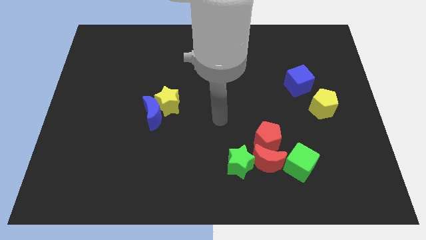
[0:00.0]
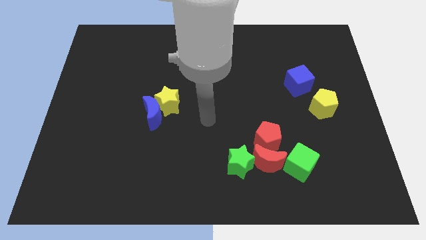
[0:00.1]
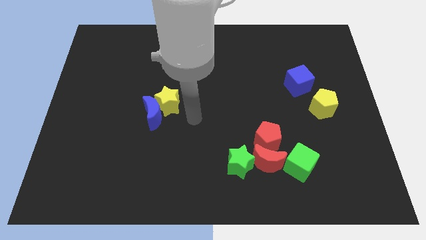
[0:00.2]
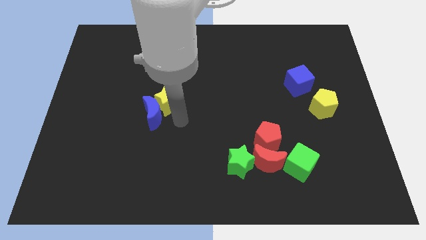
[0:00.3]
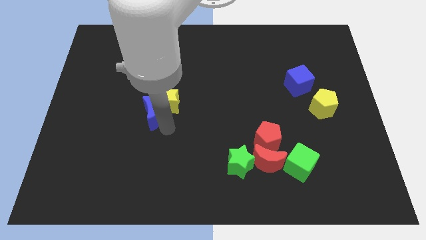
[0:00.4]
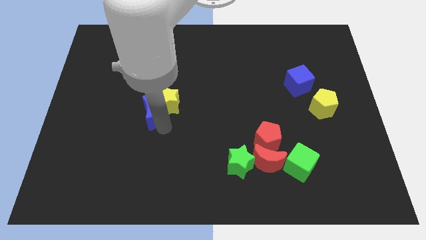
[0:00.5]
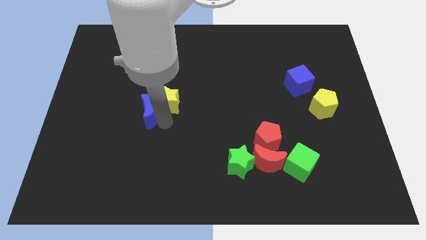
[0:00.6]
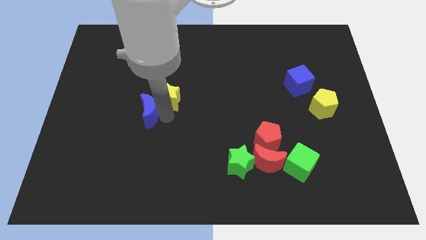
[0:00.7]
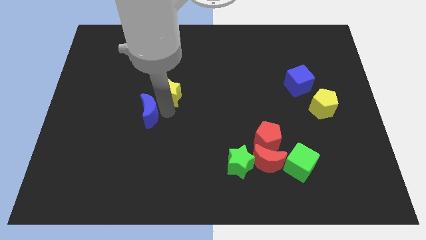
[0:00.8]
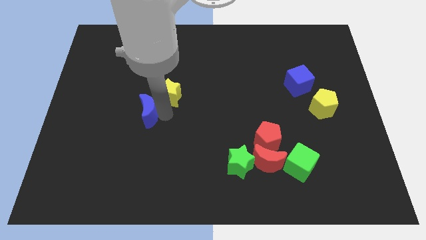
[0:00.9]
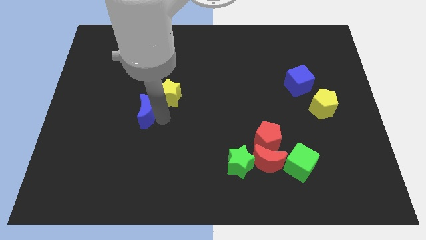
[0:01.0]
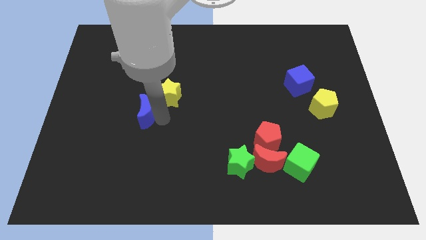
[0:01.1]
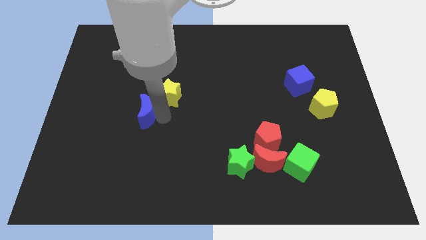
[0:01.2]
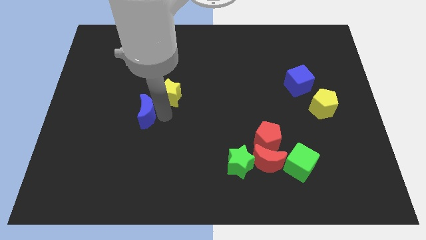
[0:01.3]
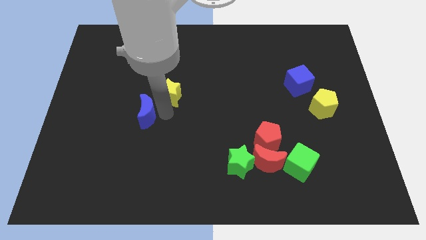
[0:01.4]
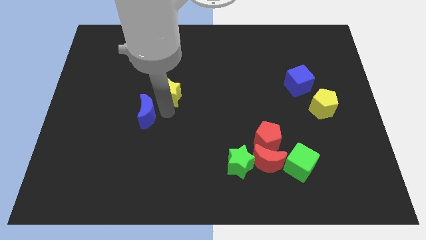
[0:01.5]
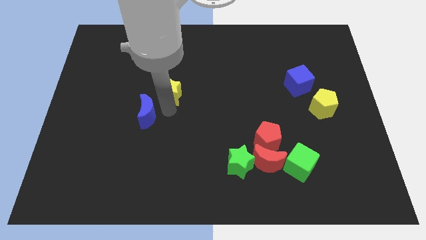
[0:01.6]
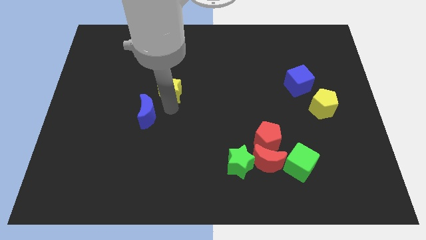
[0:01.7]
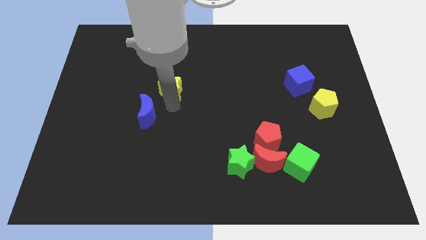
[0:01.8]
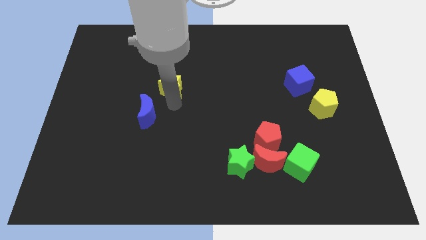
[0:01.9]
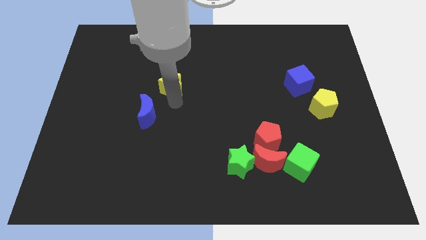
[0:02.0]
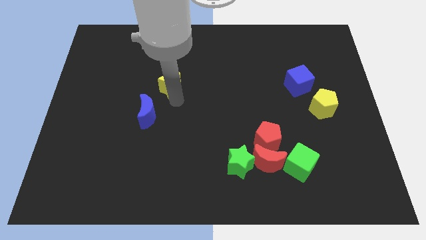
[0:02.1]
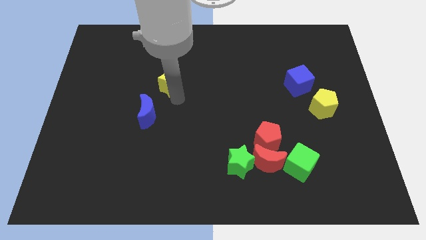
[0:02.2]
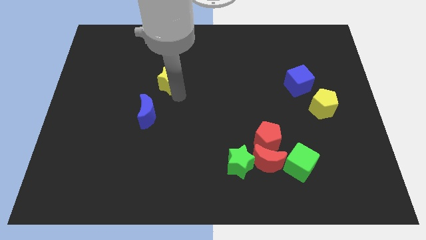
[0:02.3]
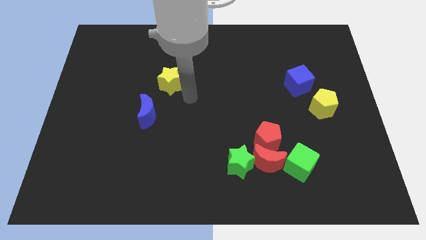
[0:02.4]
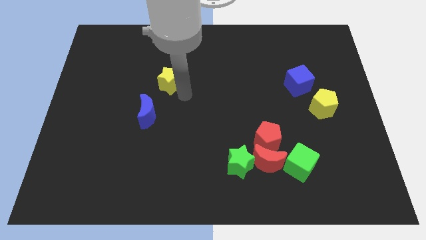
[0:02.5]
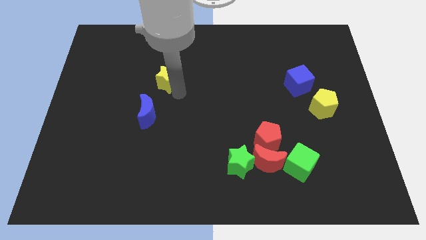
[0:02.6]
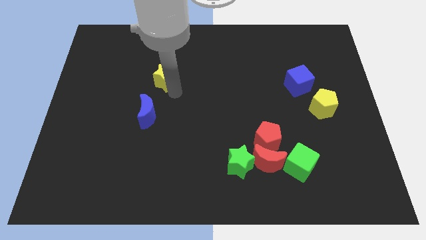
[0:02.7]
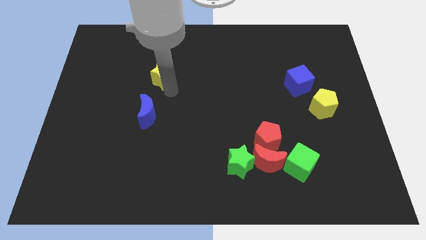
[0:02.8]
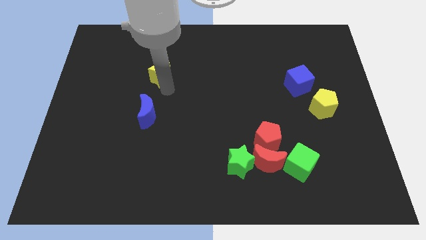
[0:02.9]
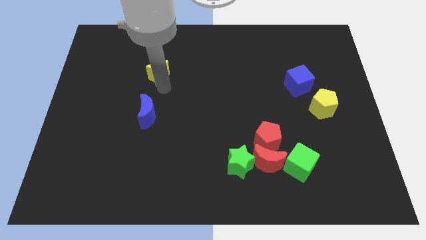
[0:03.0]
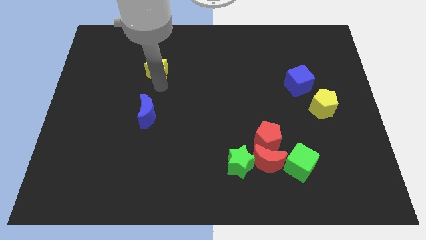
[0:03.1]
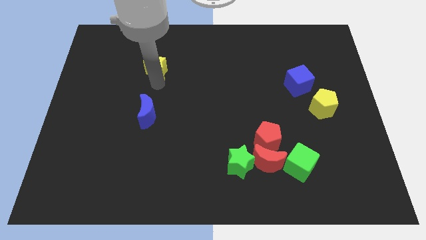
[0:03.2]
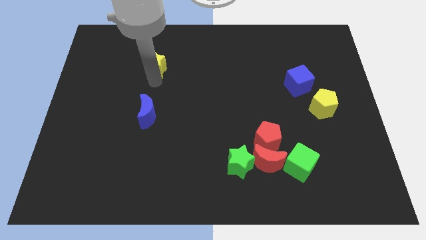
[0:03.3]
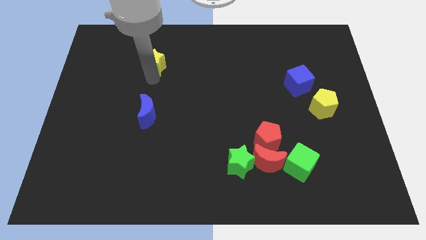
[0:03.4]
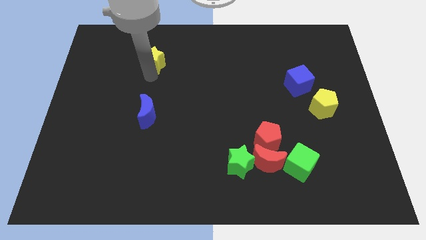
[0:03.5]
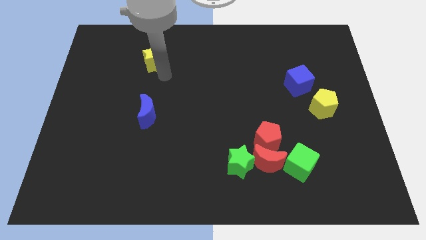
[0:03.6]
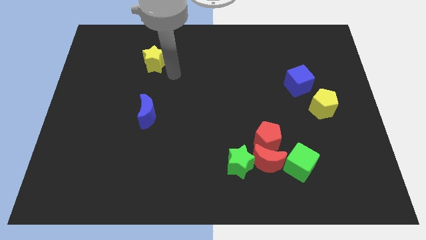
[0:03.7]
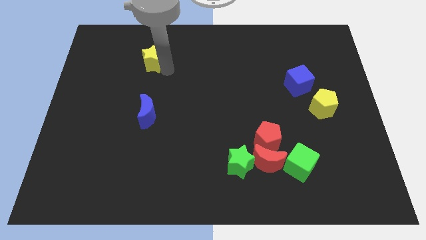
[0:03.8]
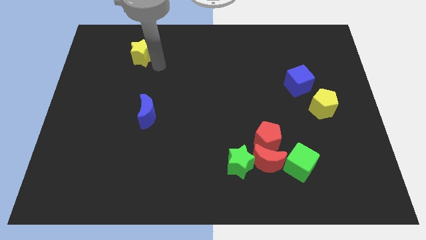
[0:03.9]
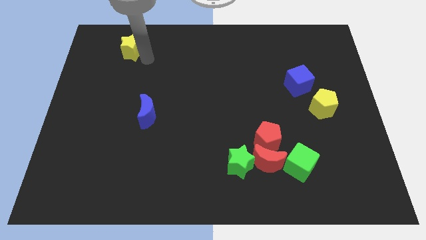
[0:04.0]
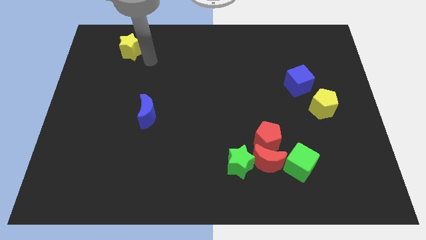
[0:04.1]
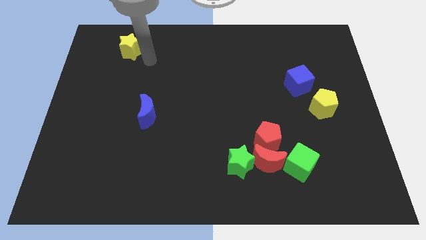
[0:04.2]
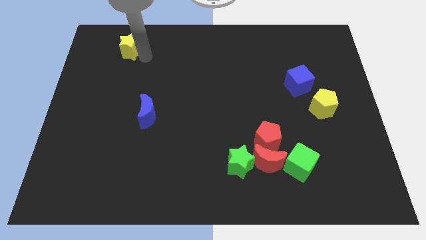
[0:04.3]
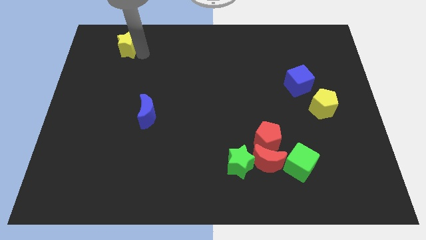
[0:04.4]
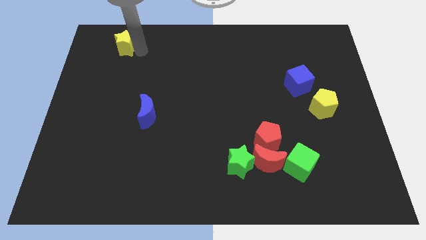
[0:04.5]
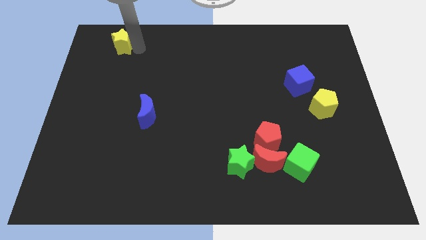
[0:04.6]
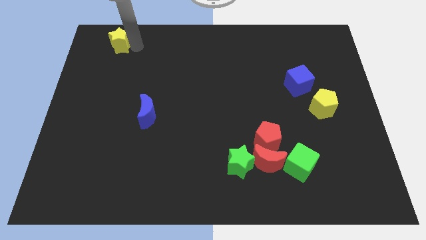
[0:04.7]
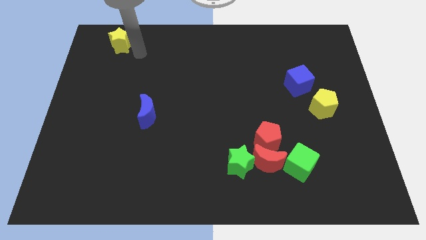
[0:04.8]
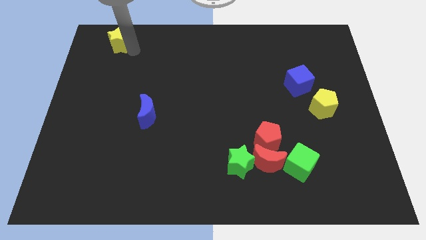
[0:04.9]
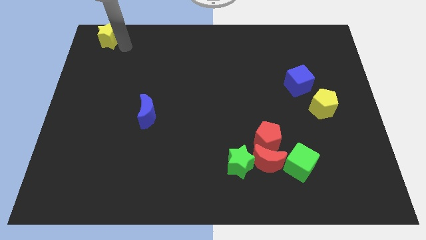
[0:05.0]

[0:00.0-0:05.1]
push the yellow star to the top left corner

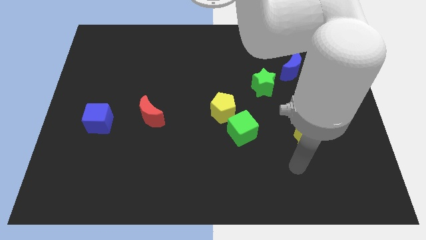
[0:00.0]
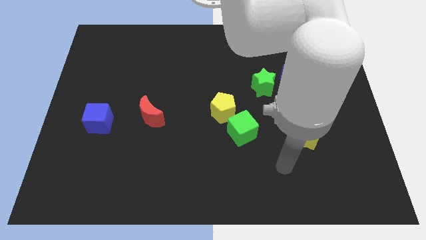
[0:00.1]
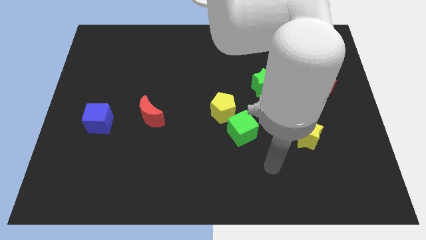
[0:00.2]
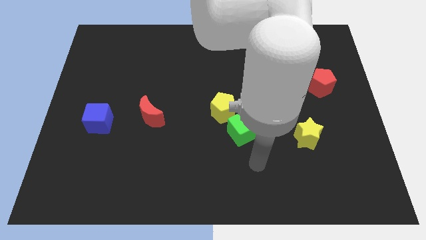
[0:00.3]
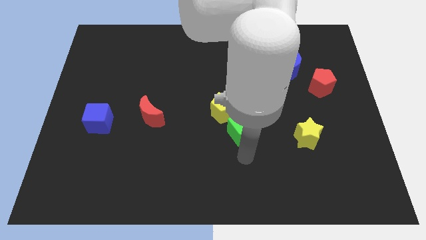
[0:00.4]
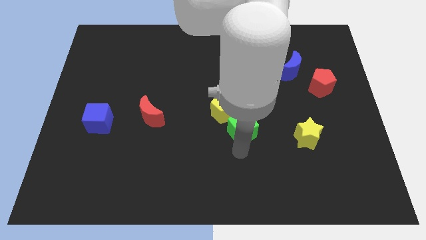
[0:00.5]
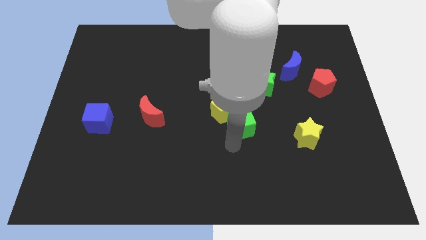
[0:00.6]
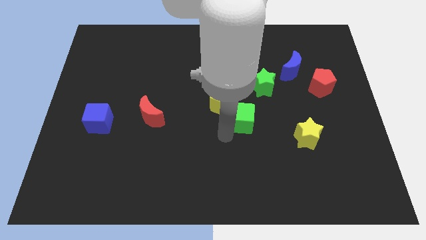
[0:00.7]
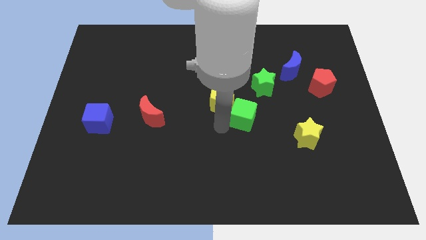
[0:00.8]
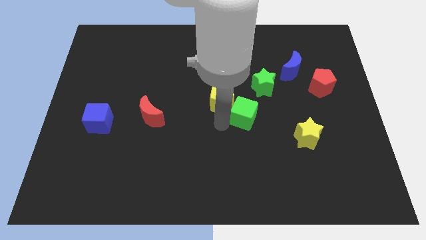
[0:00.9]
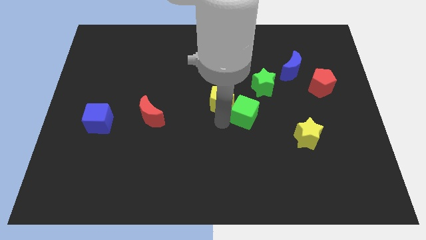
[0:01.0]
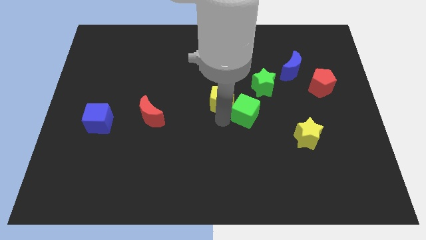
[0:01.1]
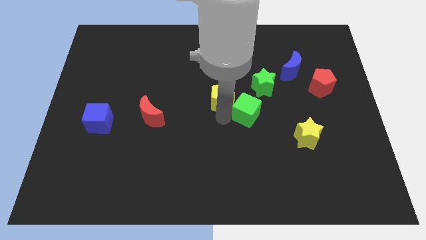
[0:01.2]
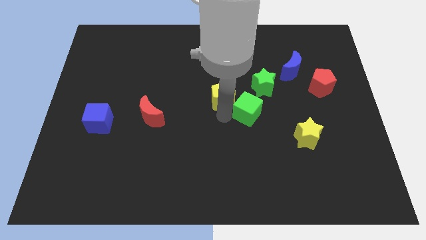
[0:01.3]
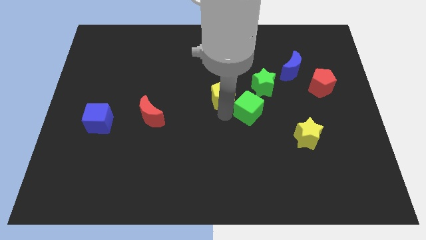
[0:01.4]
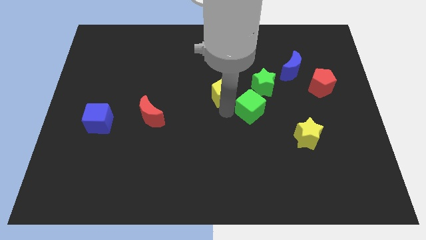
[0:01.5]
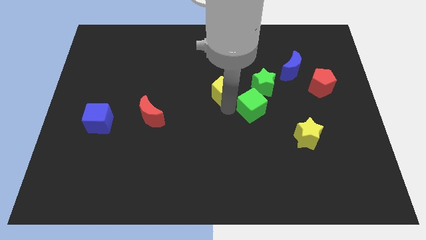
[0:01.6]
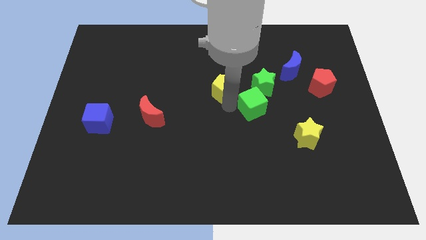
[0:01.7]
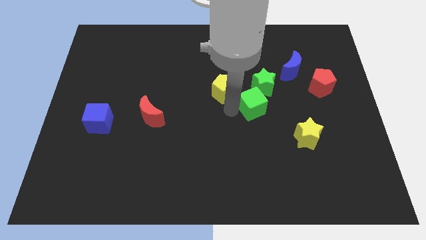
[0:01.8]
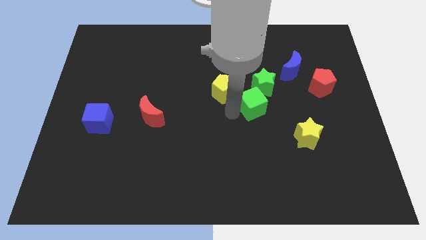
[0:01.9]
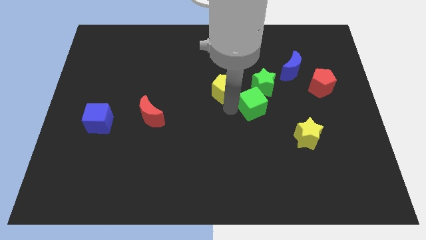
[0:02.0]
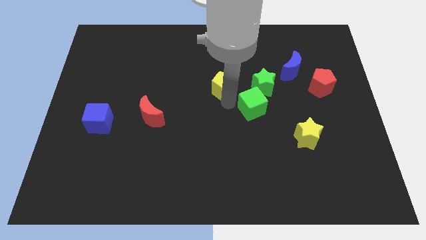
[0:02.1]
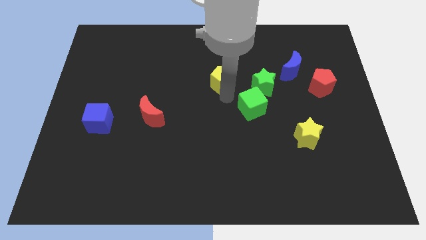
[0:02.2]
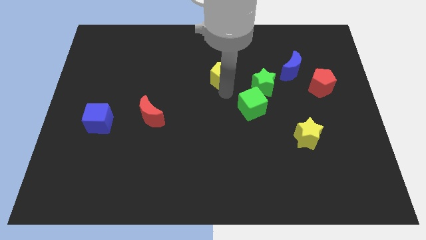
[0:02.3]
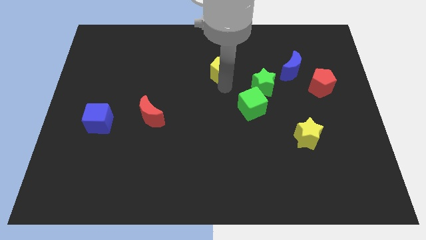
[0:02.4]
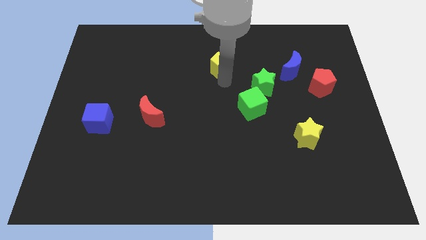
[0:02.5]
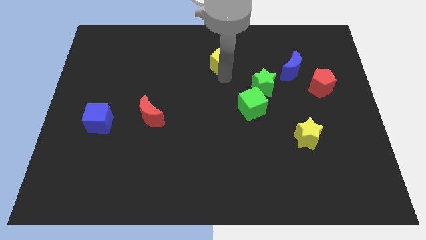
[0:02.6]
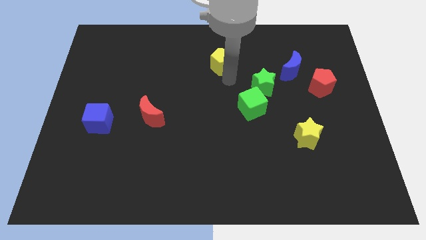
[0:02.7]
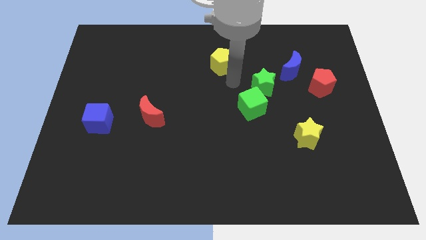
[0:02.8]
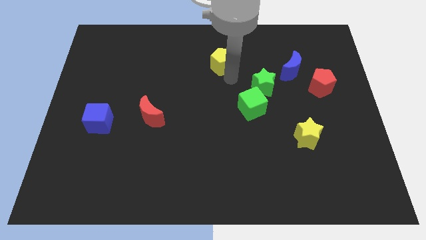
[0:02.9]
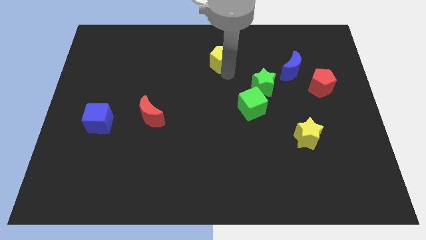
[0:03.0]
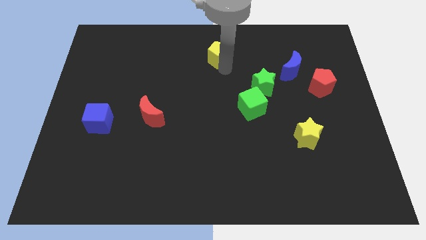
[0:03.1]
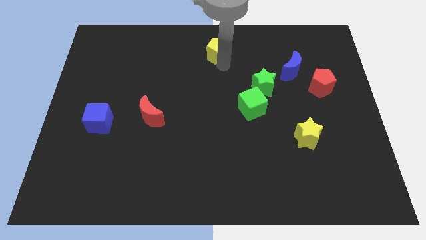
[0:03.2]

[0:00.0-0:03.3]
slide the yellow pentagon to the top
